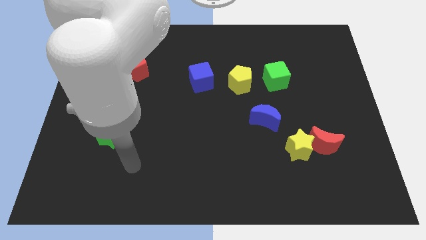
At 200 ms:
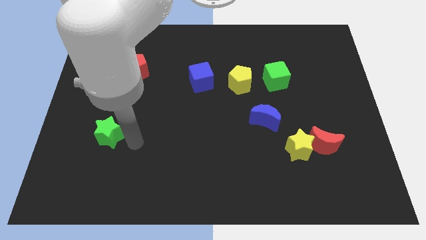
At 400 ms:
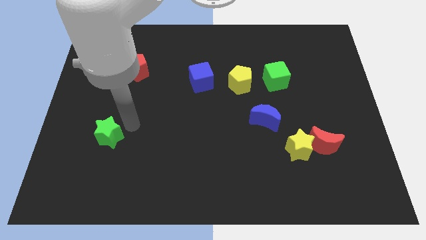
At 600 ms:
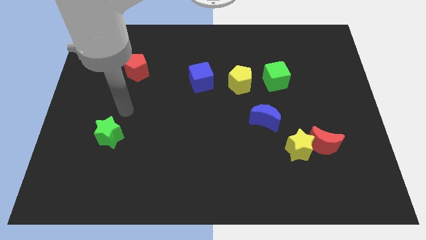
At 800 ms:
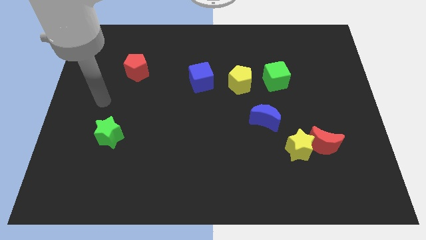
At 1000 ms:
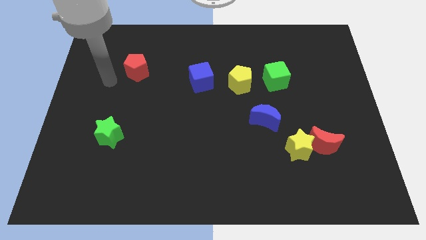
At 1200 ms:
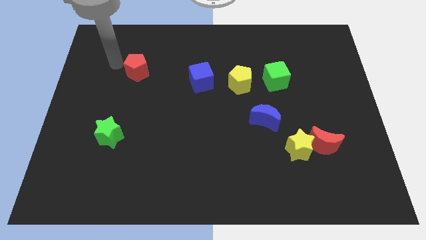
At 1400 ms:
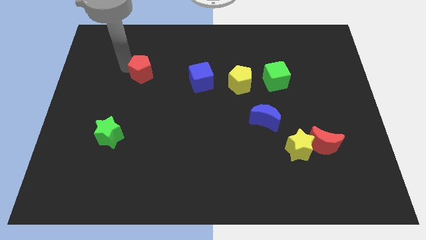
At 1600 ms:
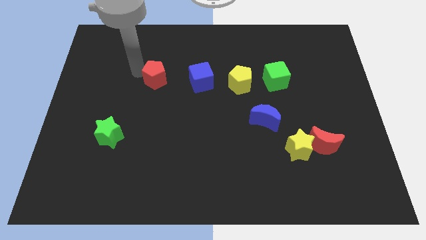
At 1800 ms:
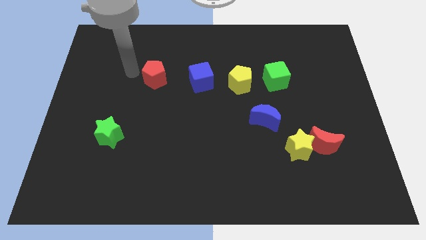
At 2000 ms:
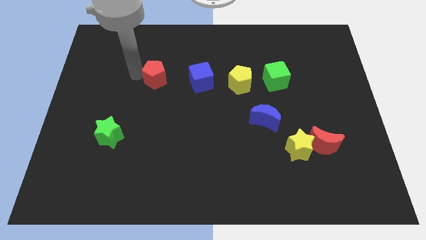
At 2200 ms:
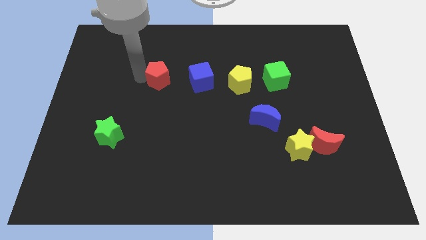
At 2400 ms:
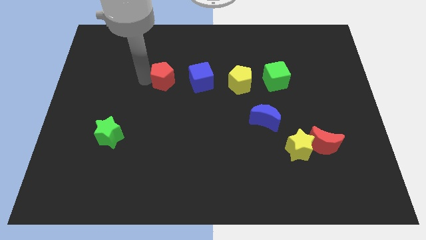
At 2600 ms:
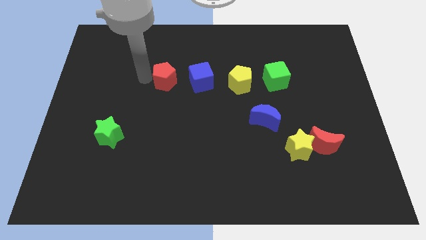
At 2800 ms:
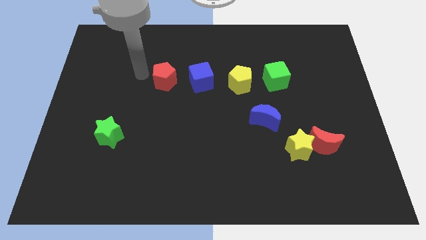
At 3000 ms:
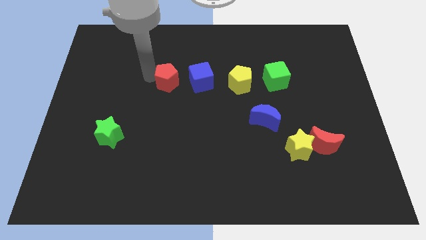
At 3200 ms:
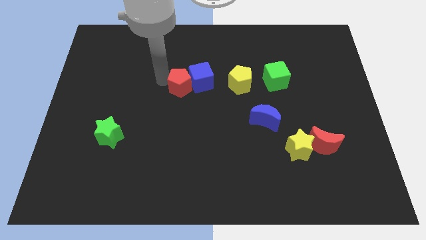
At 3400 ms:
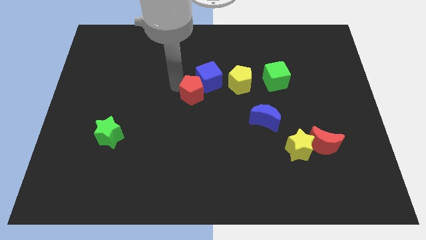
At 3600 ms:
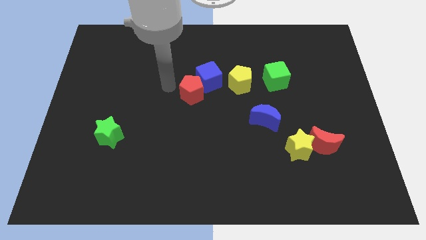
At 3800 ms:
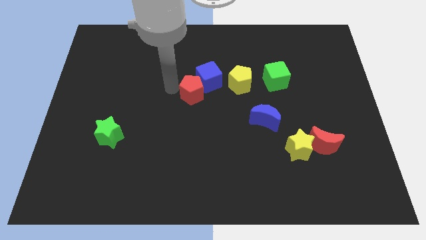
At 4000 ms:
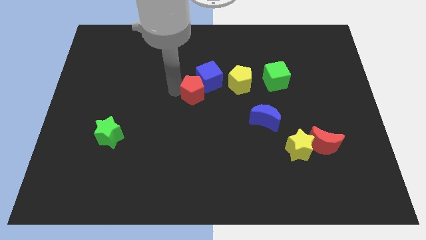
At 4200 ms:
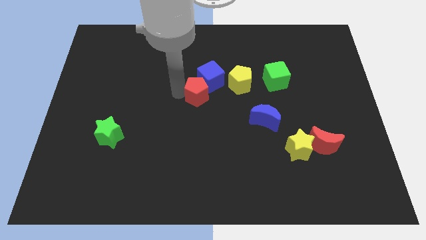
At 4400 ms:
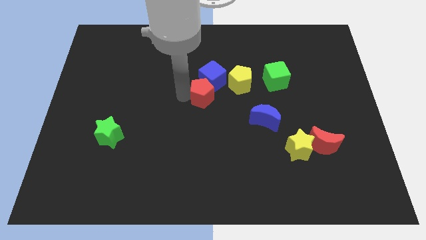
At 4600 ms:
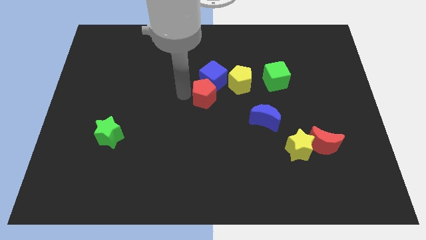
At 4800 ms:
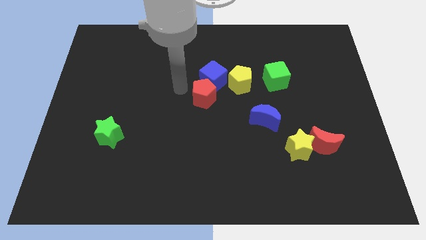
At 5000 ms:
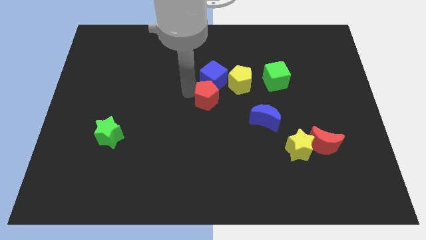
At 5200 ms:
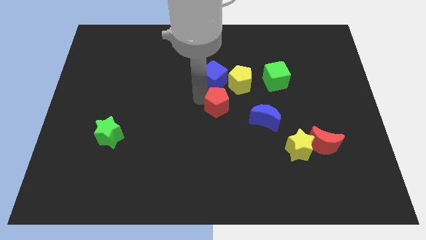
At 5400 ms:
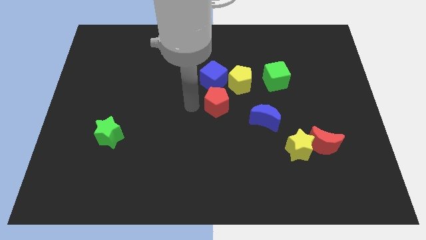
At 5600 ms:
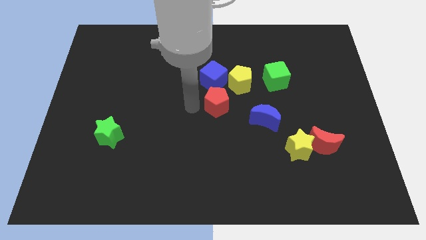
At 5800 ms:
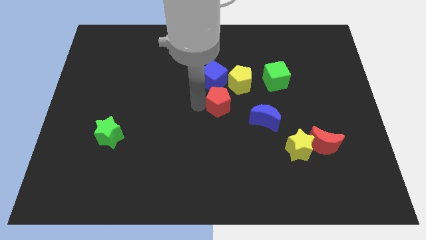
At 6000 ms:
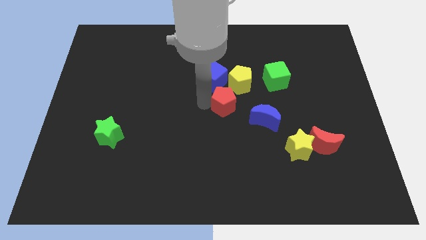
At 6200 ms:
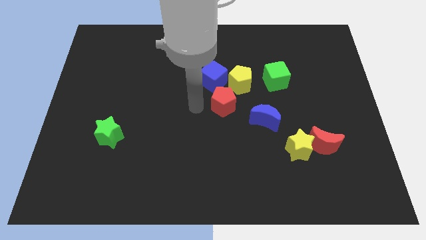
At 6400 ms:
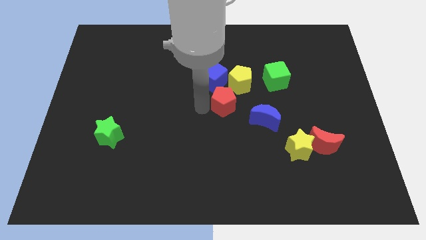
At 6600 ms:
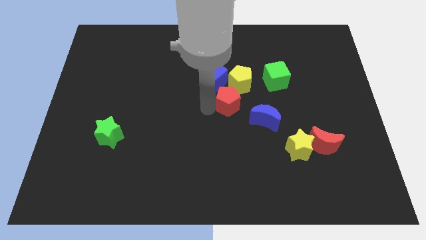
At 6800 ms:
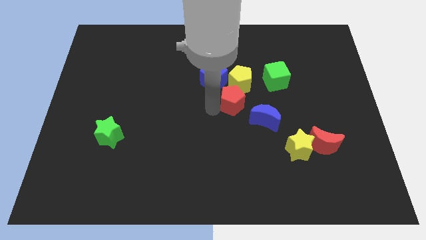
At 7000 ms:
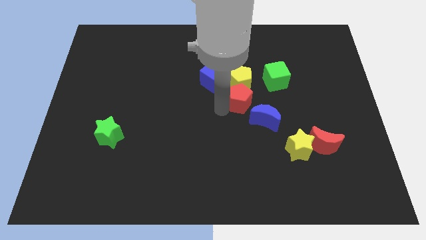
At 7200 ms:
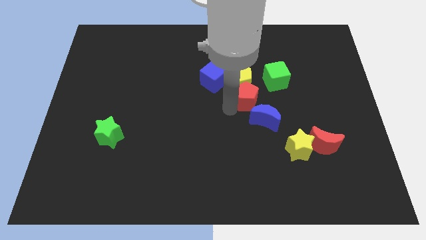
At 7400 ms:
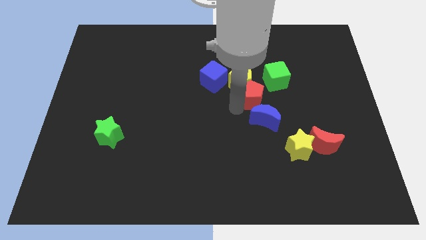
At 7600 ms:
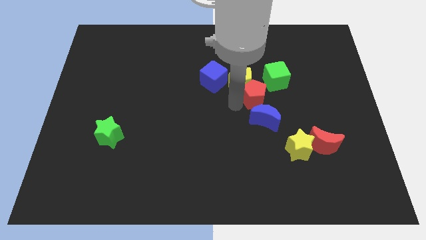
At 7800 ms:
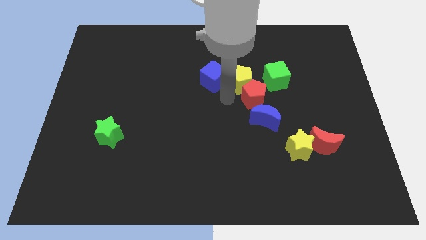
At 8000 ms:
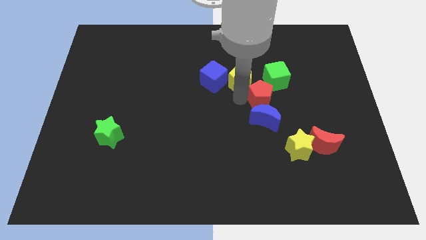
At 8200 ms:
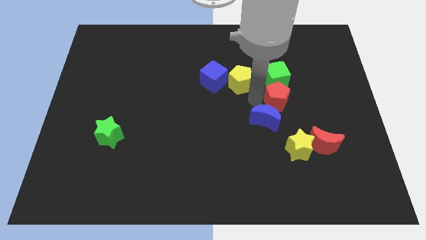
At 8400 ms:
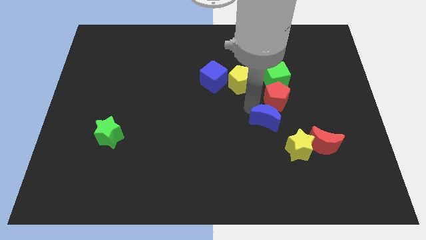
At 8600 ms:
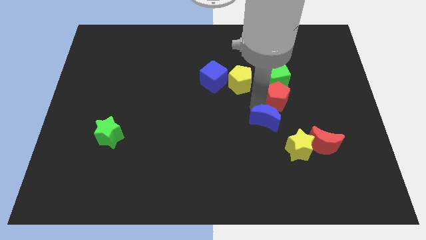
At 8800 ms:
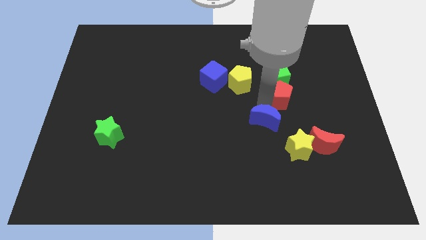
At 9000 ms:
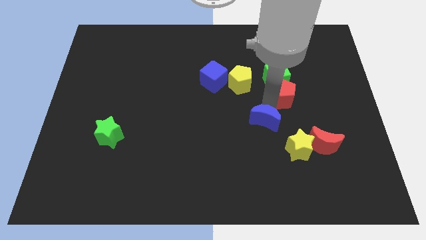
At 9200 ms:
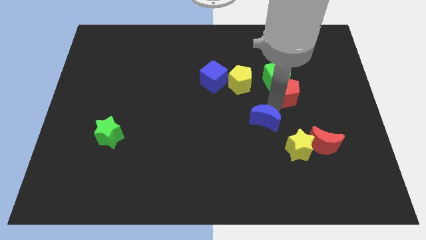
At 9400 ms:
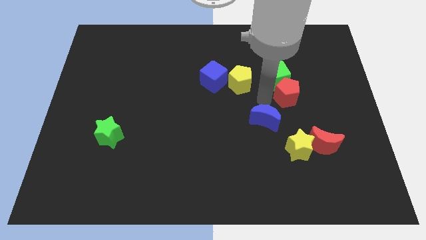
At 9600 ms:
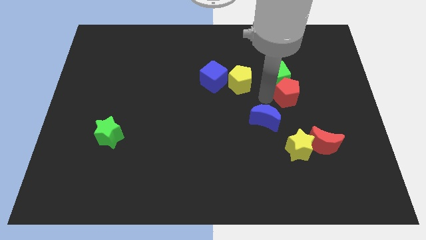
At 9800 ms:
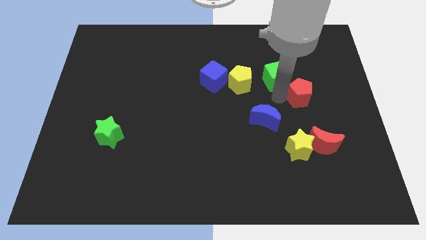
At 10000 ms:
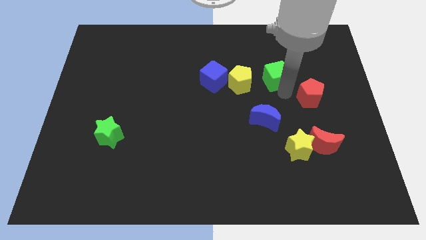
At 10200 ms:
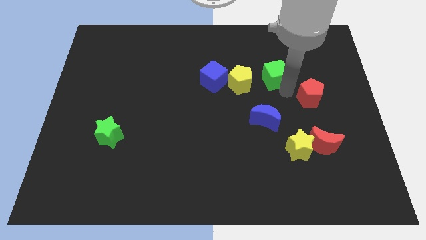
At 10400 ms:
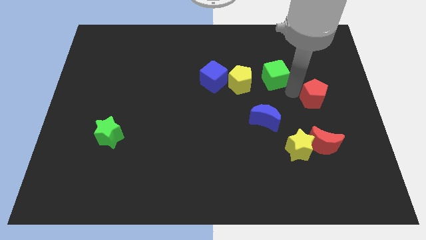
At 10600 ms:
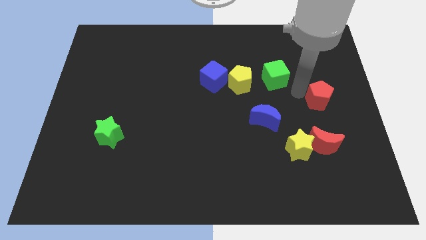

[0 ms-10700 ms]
put the red pentagon to the right side

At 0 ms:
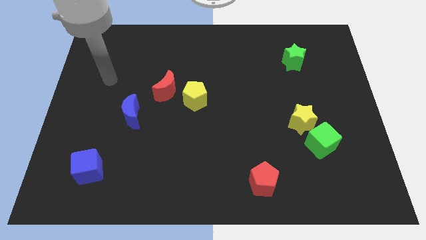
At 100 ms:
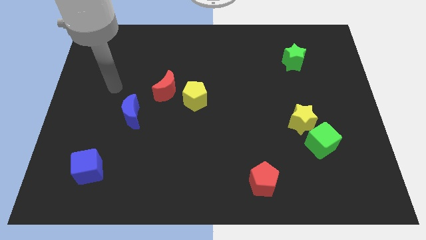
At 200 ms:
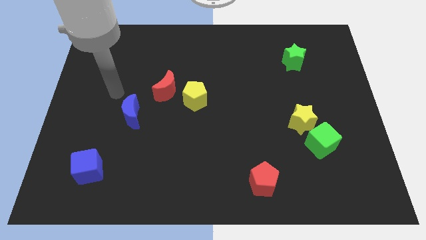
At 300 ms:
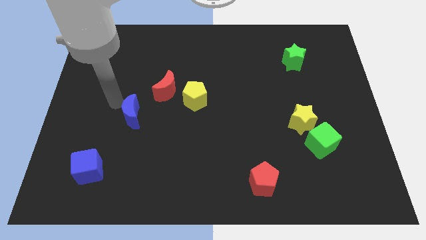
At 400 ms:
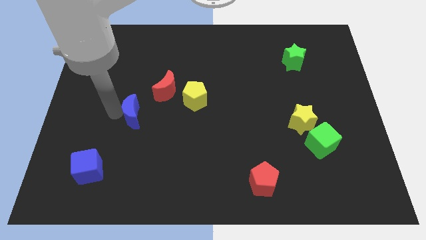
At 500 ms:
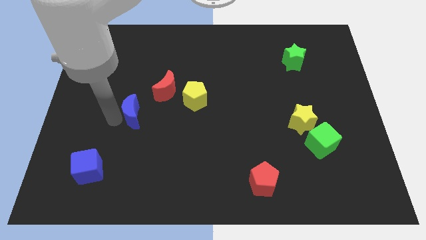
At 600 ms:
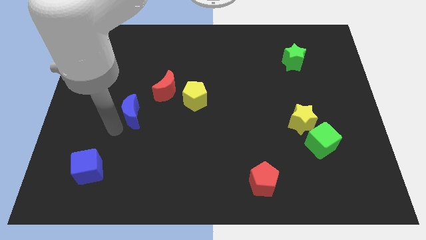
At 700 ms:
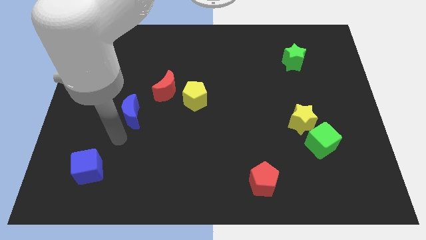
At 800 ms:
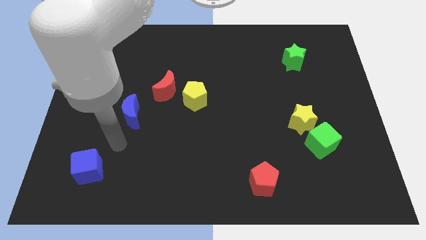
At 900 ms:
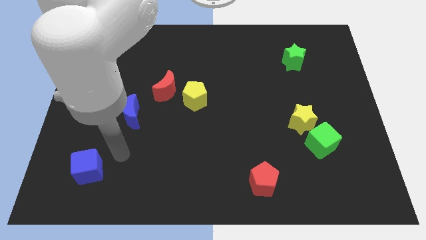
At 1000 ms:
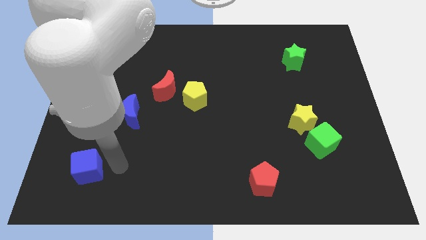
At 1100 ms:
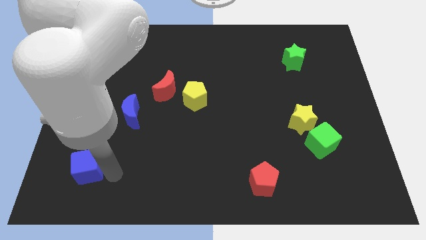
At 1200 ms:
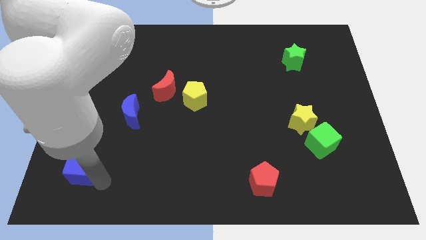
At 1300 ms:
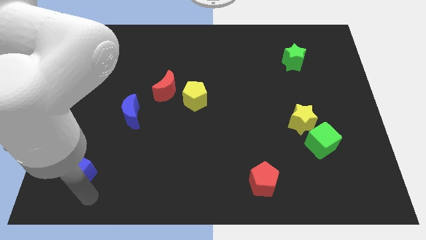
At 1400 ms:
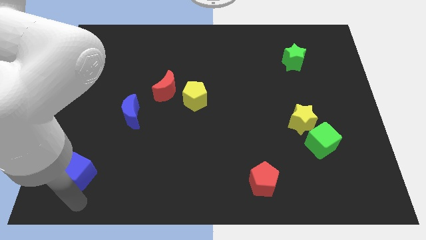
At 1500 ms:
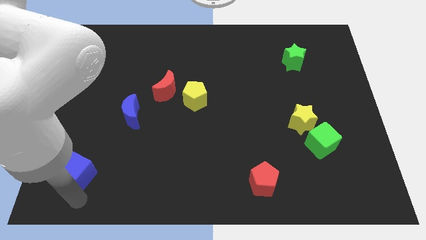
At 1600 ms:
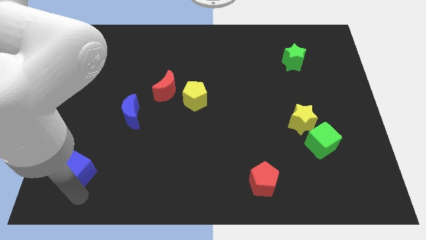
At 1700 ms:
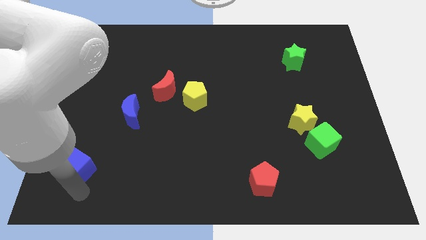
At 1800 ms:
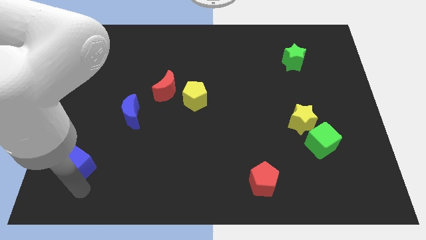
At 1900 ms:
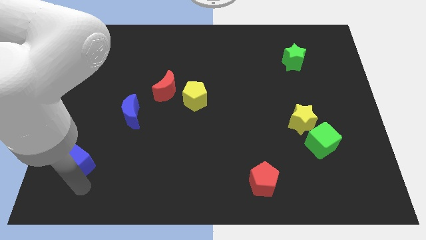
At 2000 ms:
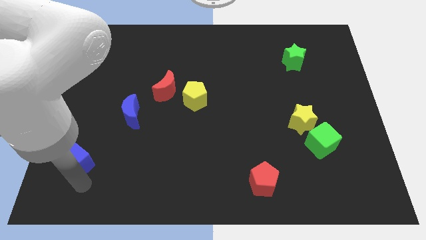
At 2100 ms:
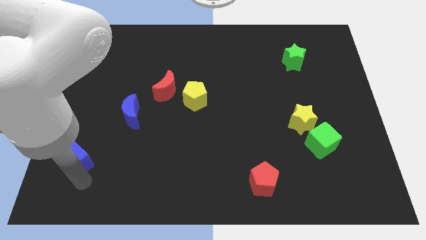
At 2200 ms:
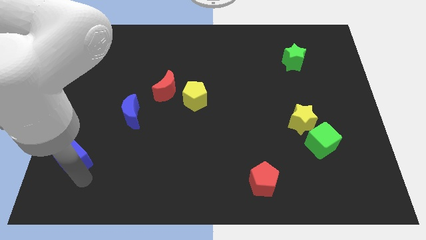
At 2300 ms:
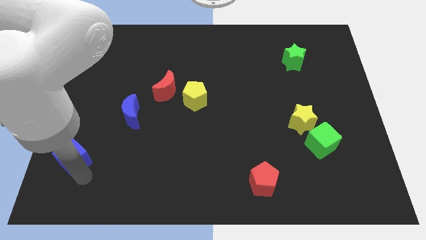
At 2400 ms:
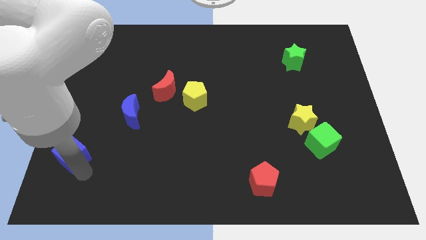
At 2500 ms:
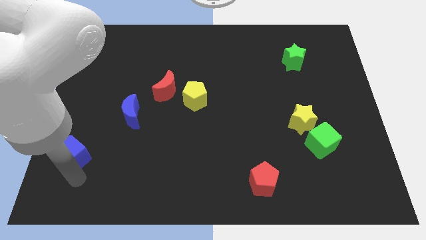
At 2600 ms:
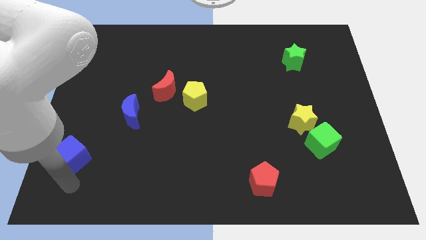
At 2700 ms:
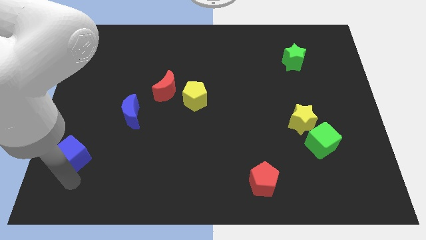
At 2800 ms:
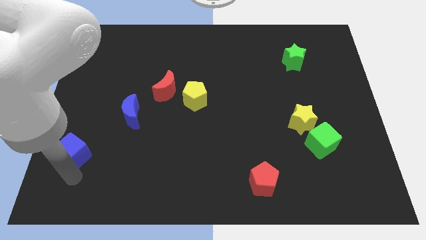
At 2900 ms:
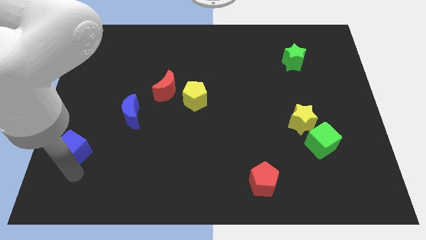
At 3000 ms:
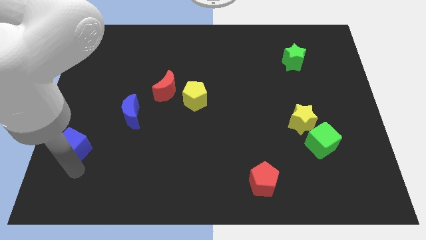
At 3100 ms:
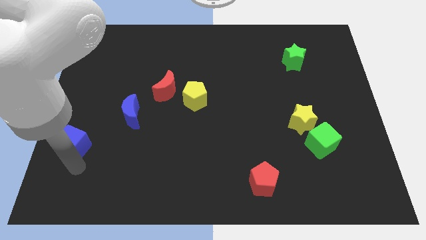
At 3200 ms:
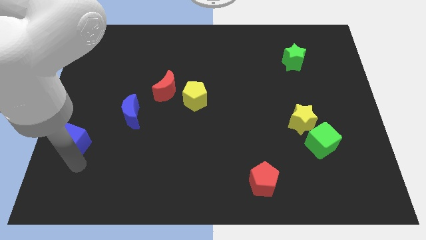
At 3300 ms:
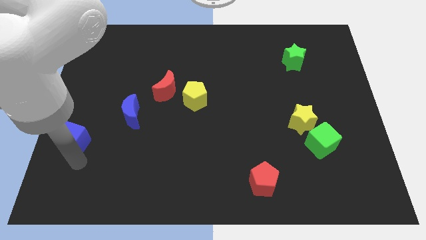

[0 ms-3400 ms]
put the blue cube to the center left
